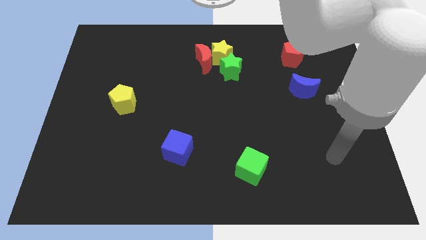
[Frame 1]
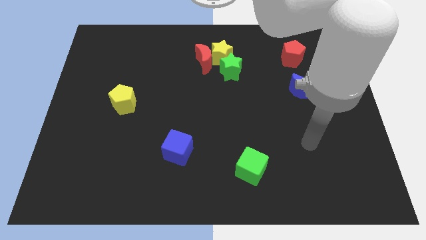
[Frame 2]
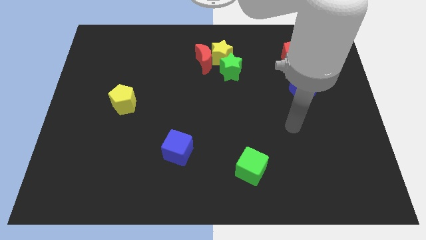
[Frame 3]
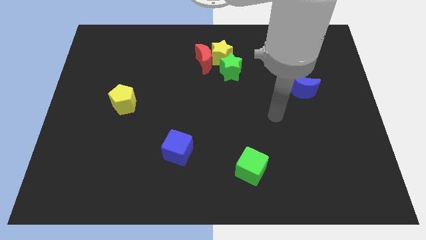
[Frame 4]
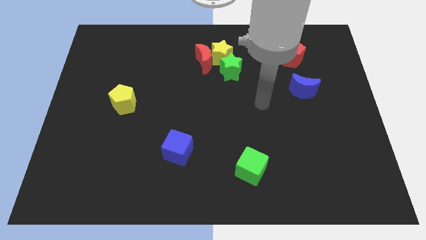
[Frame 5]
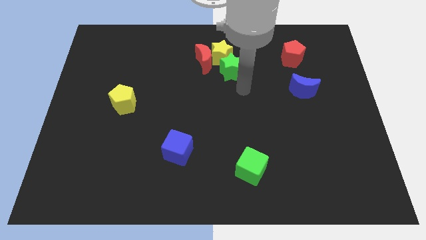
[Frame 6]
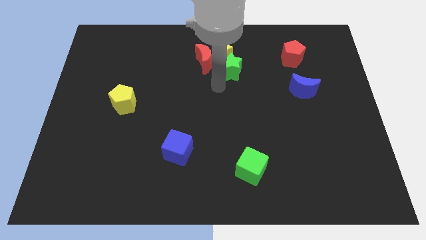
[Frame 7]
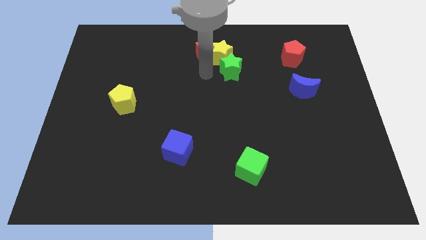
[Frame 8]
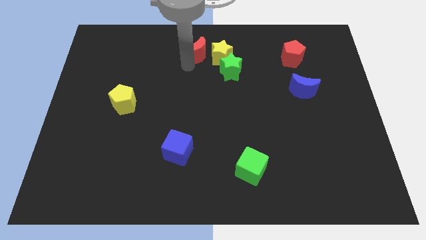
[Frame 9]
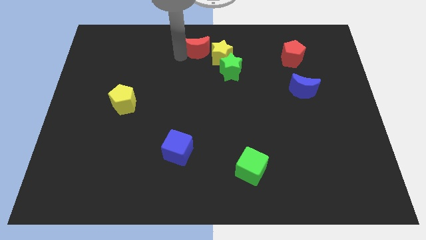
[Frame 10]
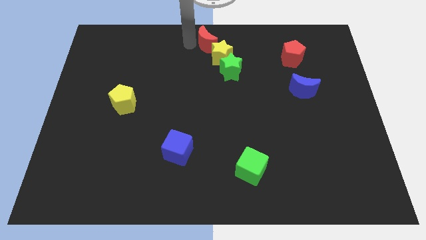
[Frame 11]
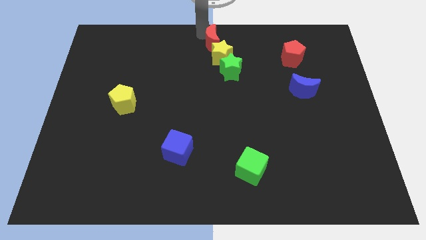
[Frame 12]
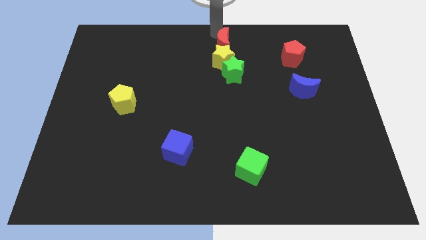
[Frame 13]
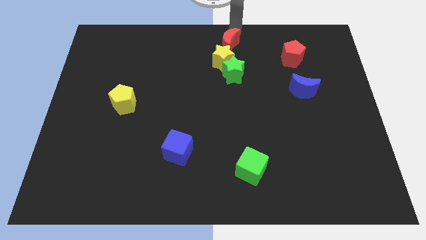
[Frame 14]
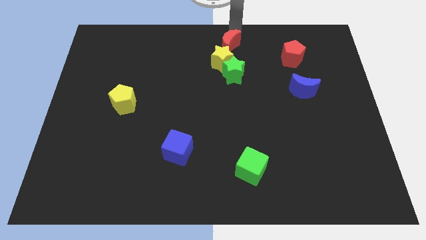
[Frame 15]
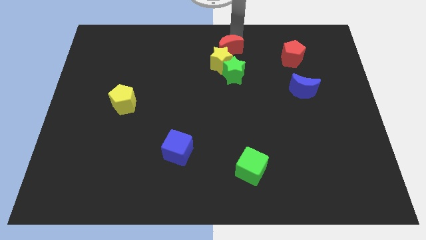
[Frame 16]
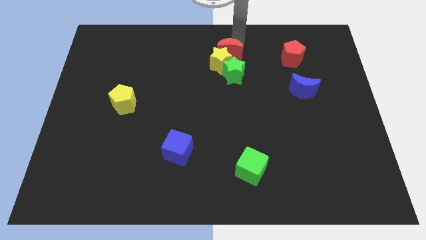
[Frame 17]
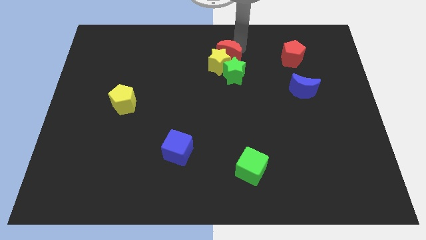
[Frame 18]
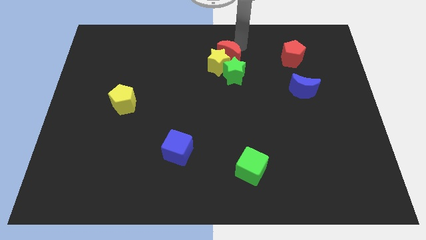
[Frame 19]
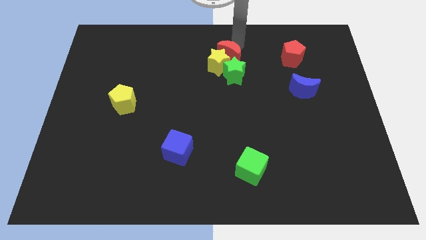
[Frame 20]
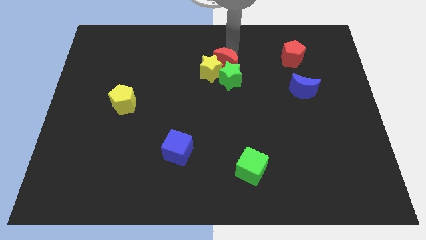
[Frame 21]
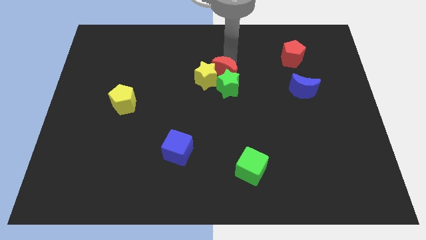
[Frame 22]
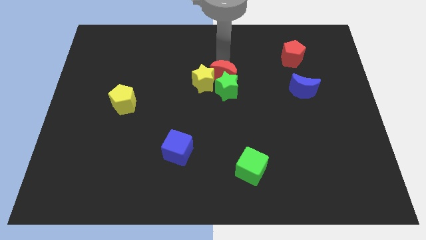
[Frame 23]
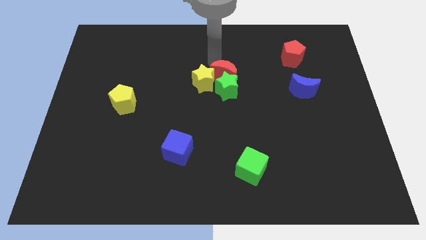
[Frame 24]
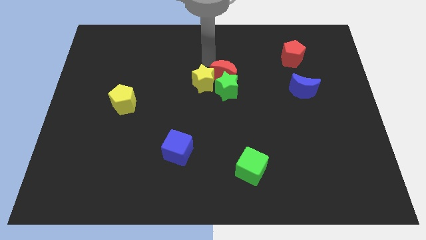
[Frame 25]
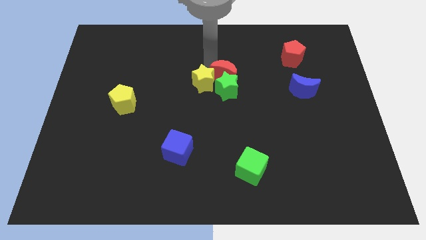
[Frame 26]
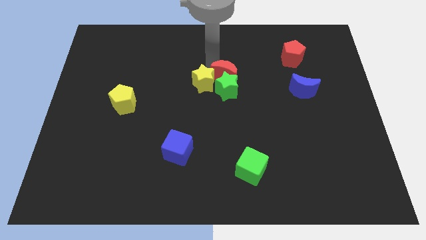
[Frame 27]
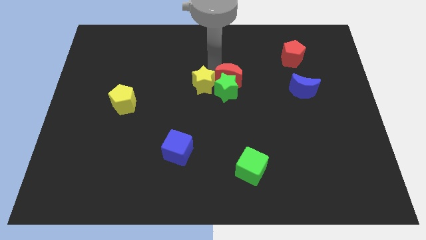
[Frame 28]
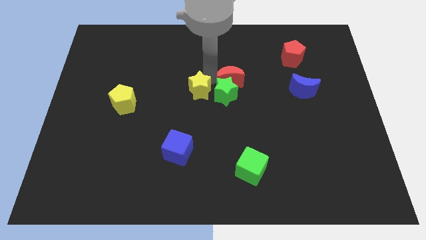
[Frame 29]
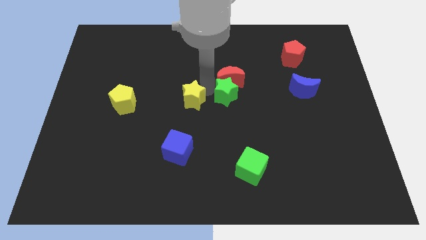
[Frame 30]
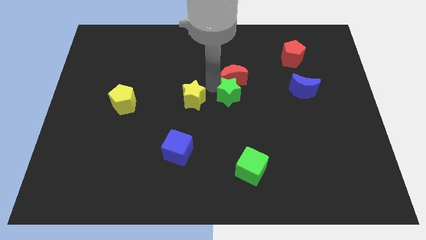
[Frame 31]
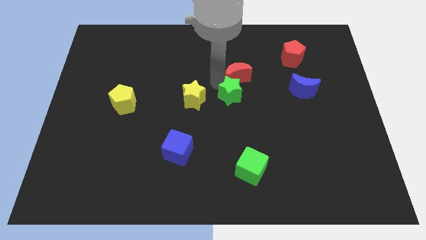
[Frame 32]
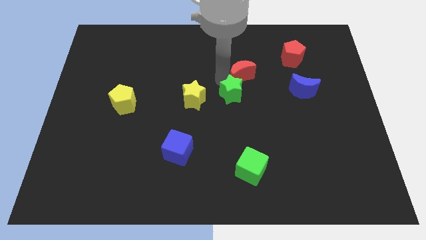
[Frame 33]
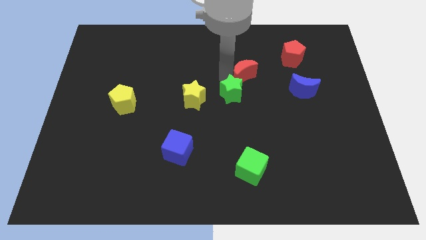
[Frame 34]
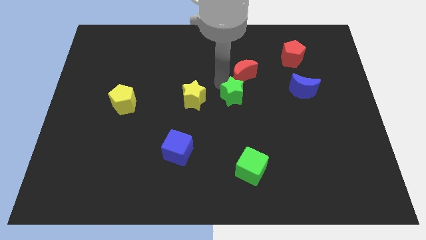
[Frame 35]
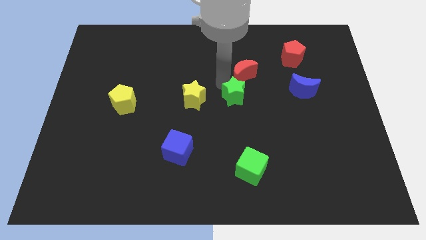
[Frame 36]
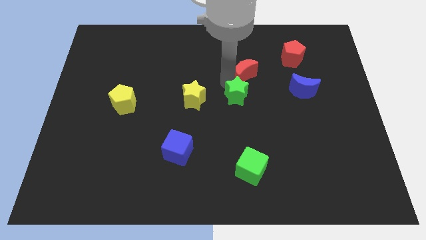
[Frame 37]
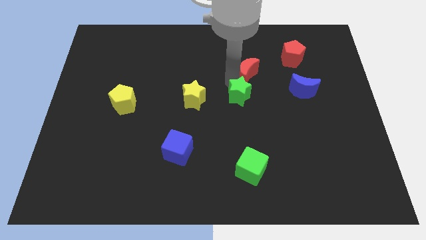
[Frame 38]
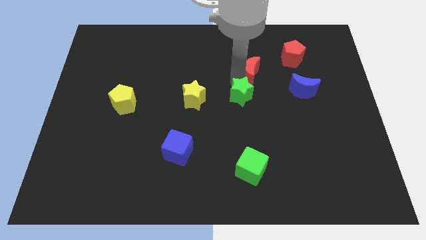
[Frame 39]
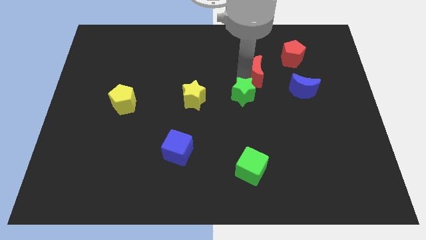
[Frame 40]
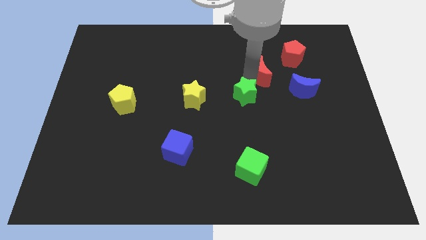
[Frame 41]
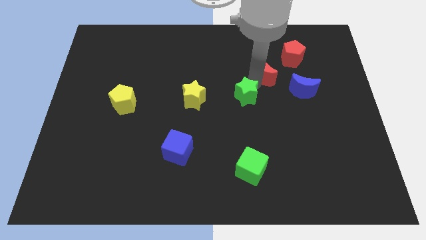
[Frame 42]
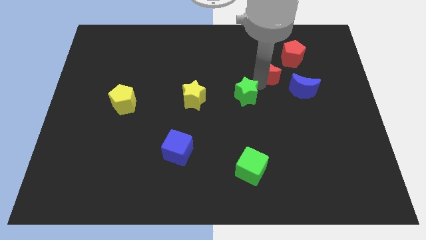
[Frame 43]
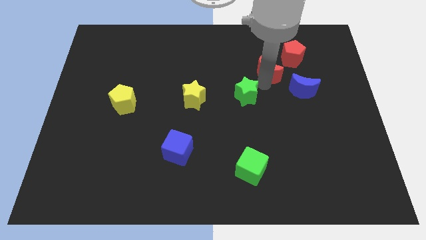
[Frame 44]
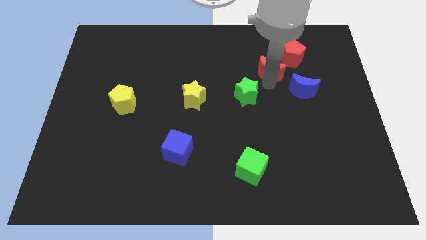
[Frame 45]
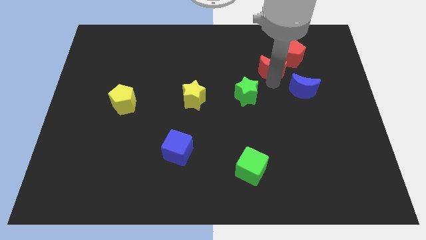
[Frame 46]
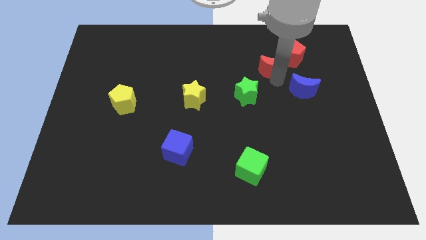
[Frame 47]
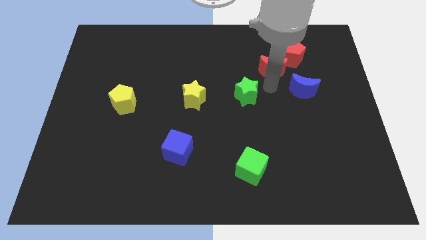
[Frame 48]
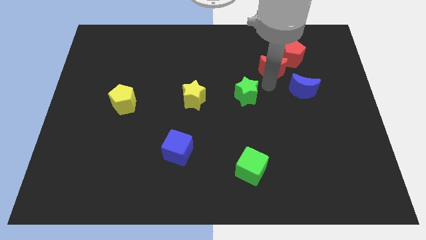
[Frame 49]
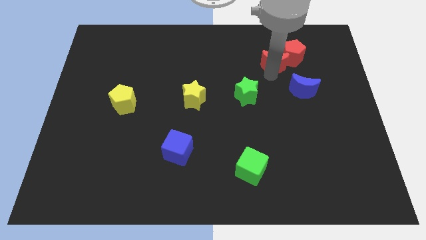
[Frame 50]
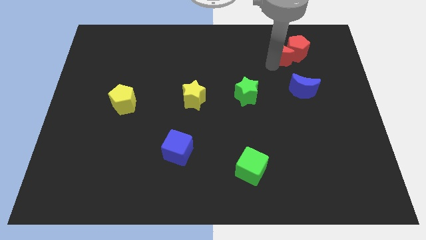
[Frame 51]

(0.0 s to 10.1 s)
move the red moon to the top of the blue moon

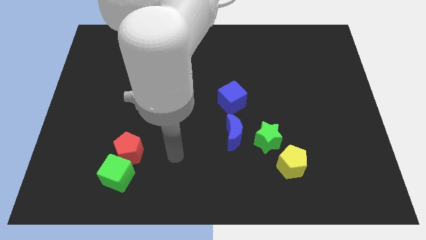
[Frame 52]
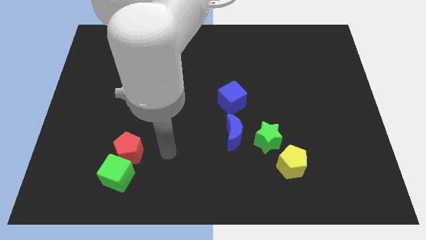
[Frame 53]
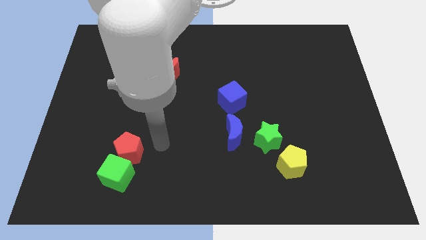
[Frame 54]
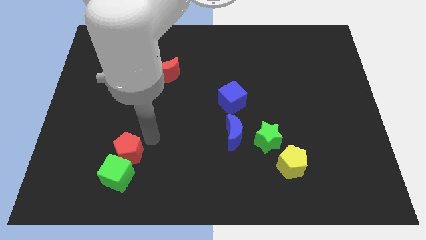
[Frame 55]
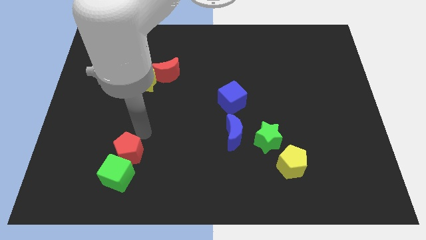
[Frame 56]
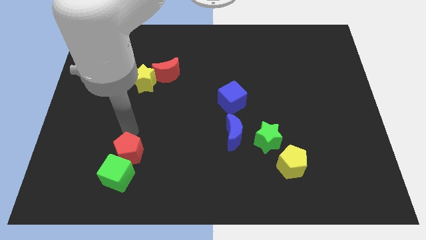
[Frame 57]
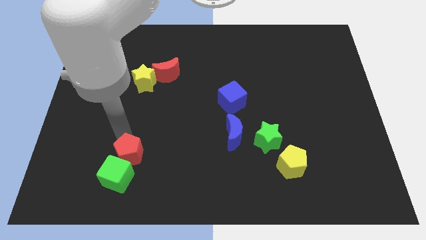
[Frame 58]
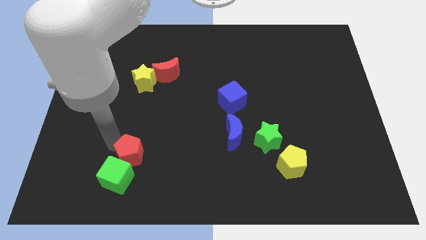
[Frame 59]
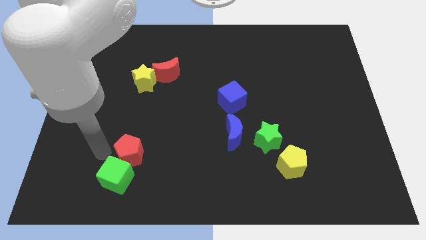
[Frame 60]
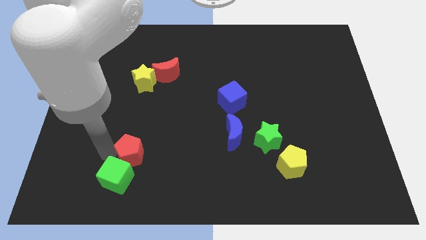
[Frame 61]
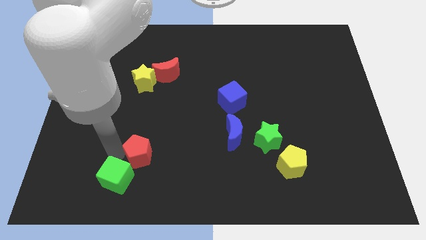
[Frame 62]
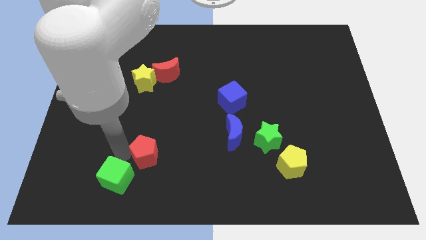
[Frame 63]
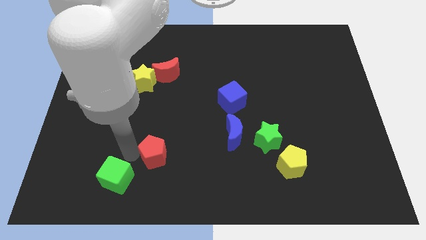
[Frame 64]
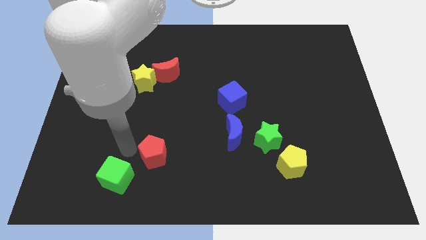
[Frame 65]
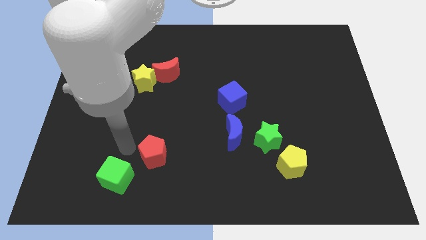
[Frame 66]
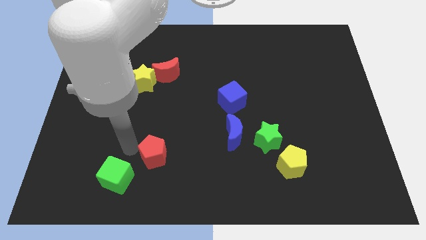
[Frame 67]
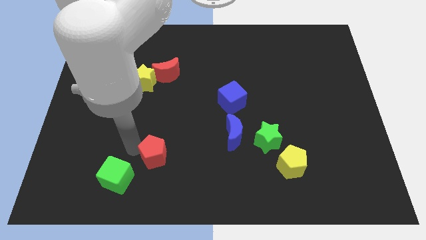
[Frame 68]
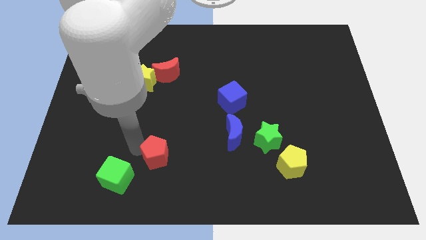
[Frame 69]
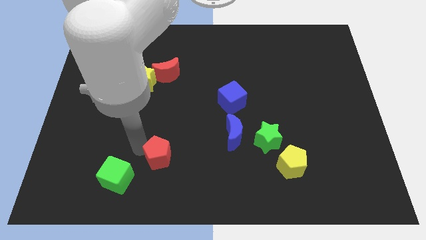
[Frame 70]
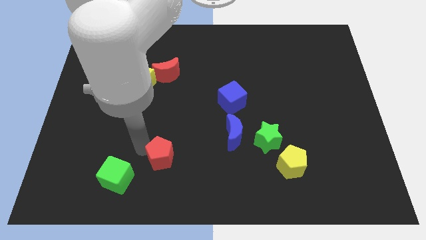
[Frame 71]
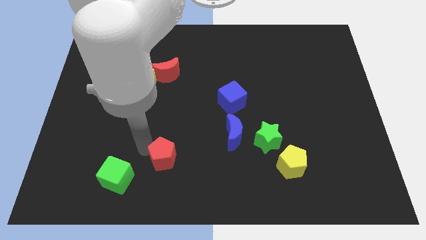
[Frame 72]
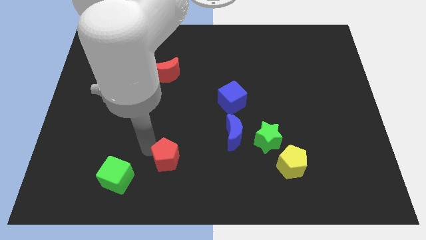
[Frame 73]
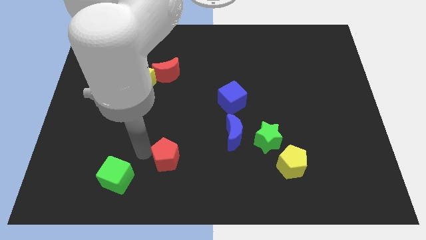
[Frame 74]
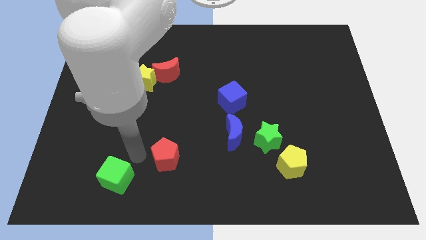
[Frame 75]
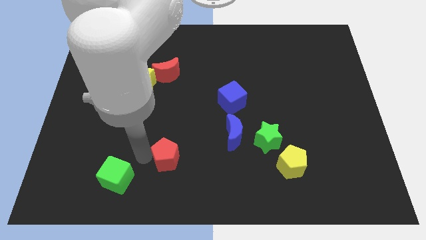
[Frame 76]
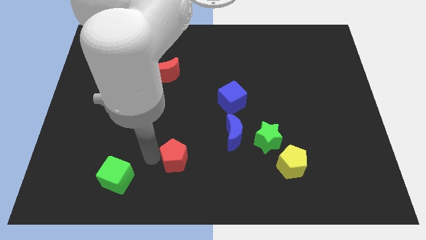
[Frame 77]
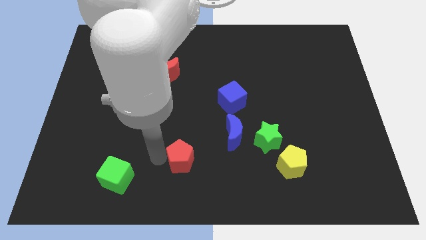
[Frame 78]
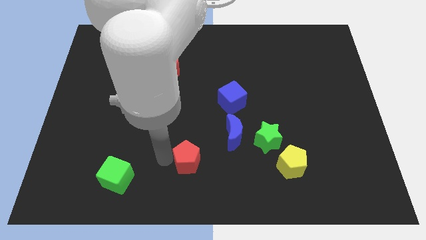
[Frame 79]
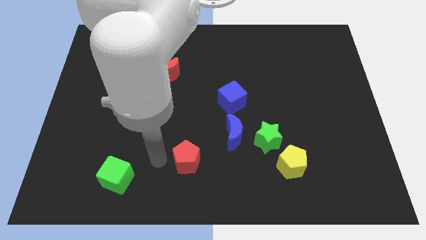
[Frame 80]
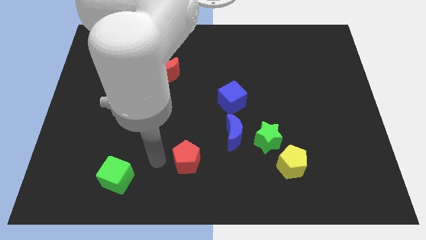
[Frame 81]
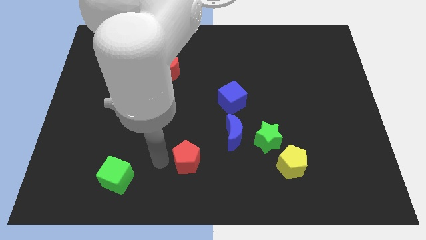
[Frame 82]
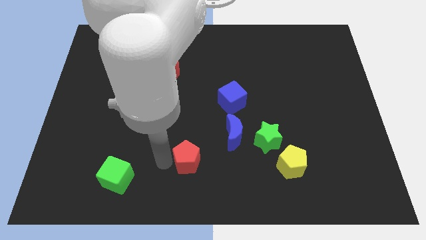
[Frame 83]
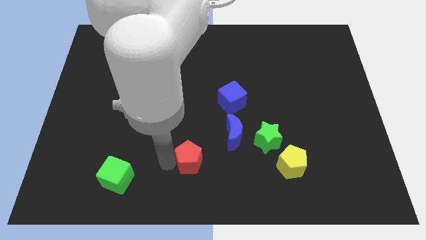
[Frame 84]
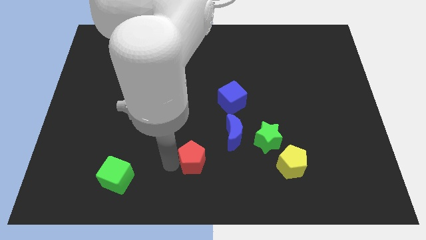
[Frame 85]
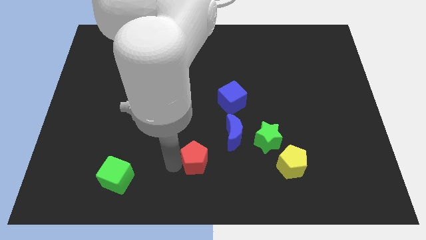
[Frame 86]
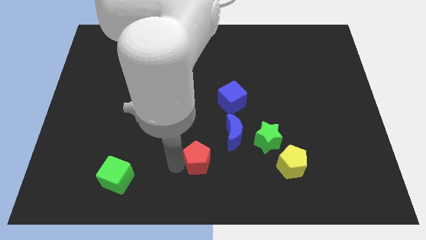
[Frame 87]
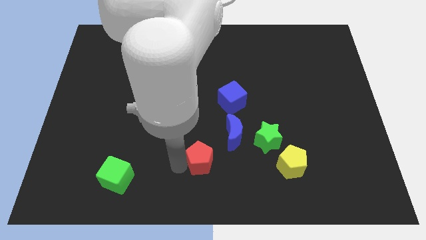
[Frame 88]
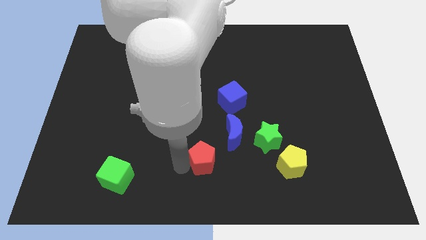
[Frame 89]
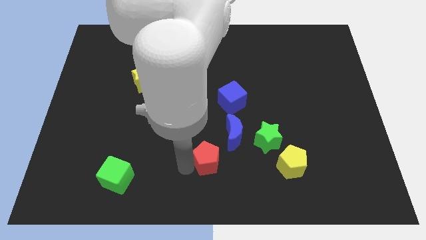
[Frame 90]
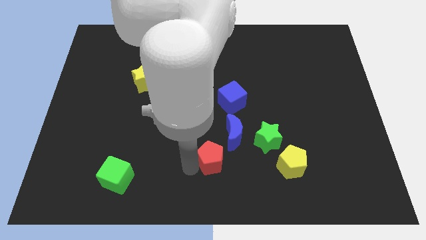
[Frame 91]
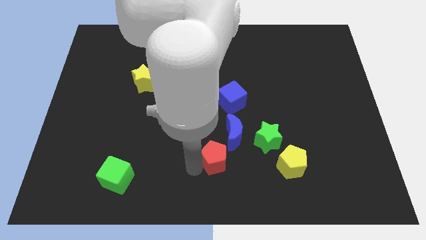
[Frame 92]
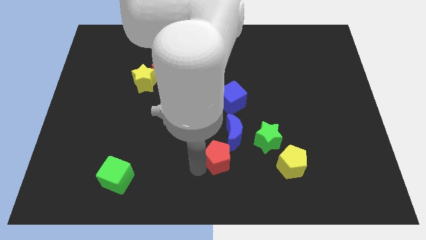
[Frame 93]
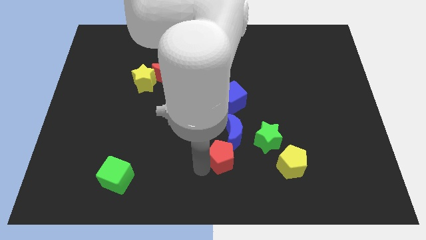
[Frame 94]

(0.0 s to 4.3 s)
slide the red pentagon diagonally down and to the left of the green star
